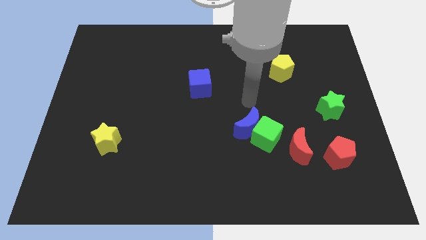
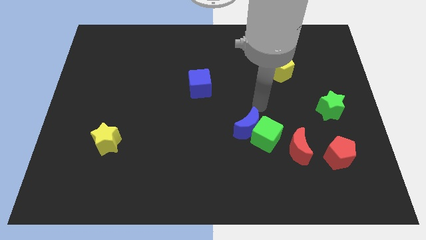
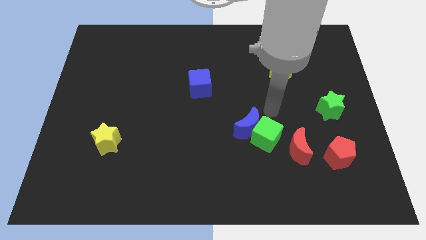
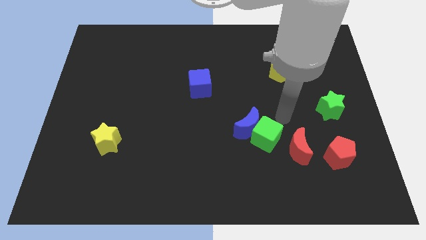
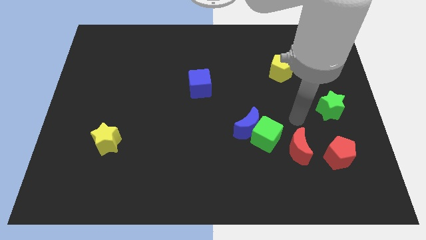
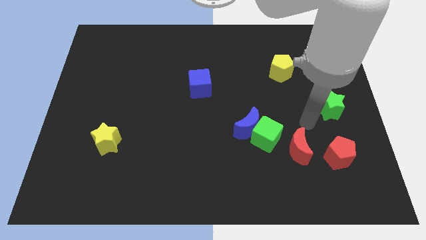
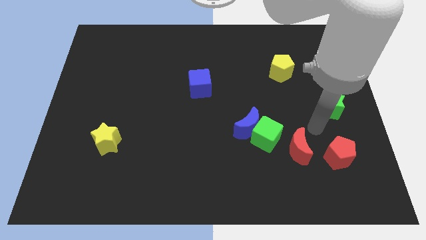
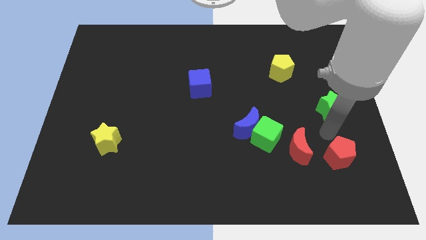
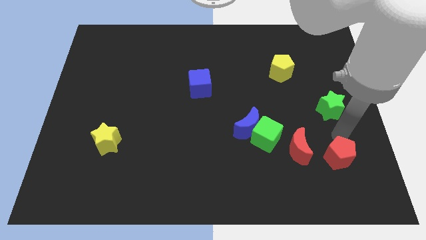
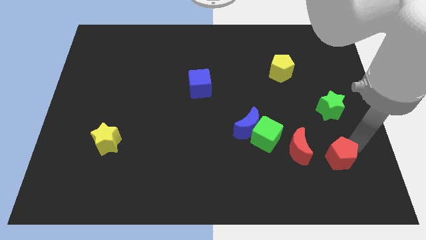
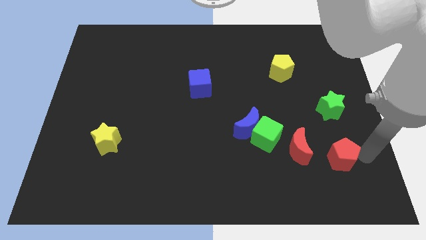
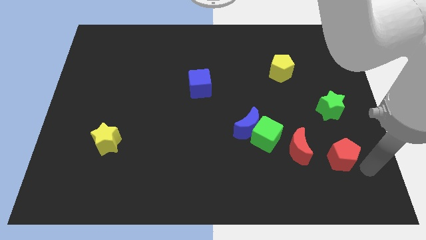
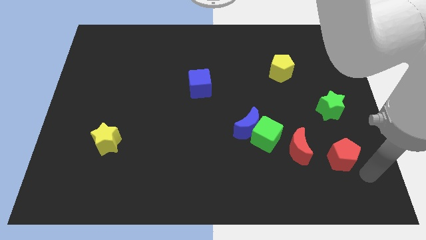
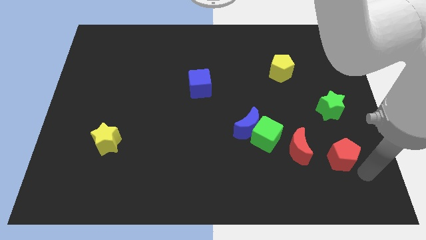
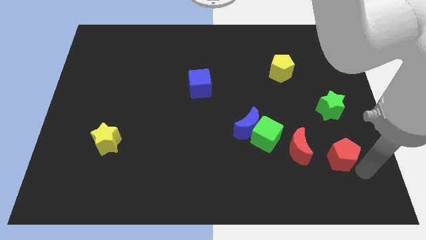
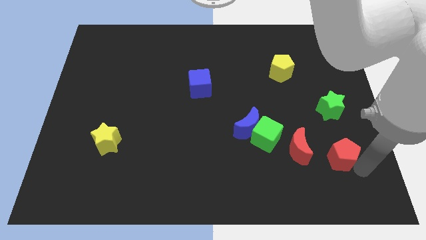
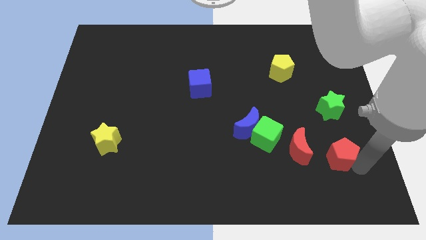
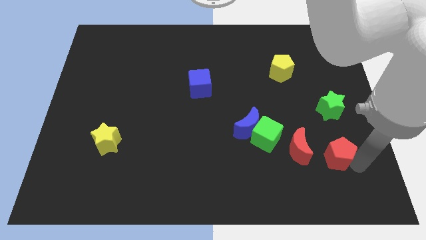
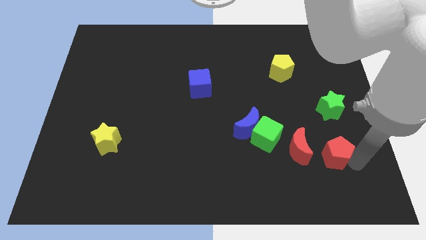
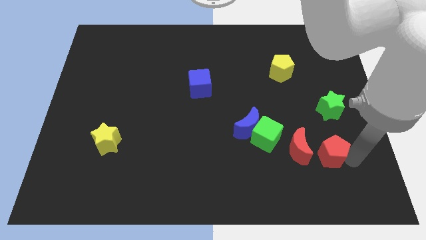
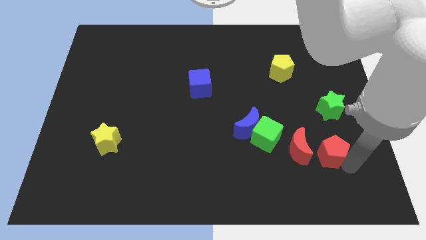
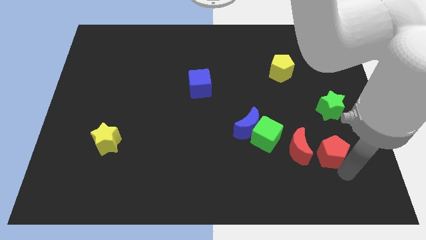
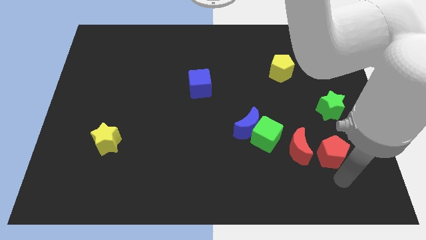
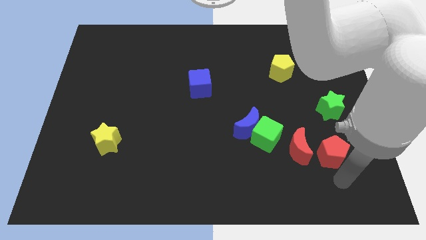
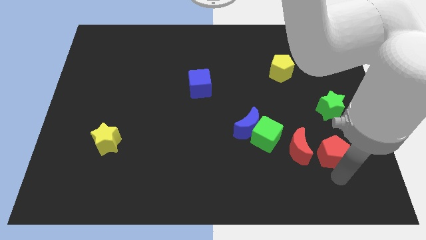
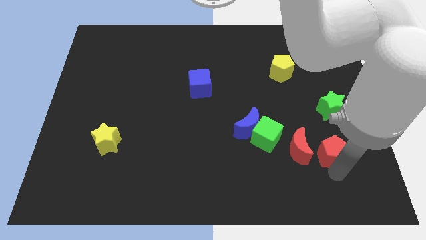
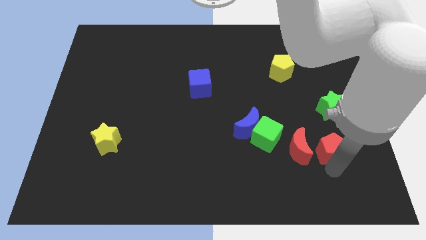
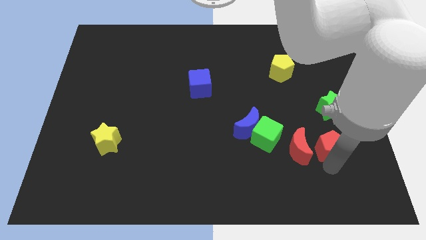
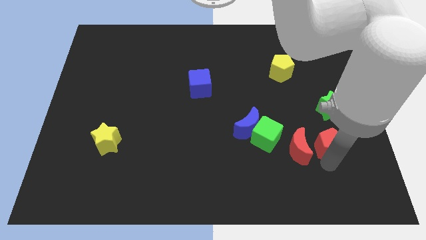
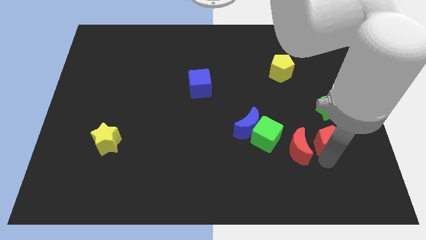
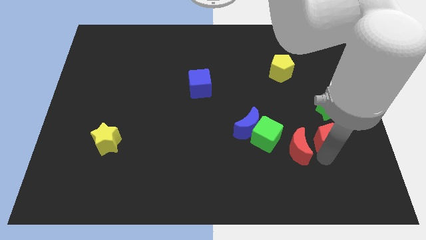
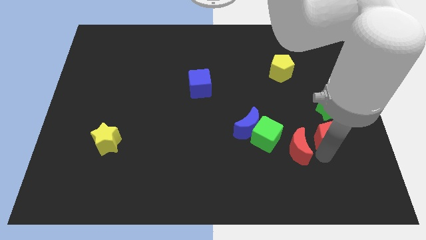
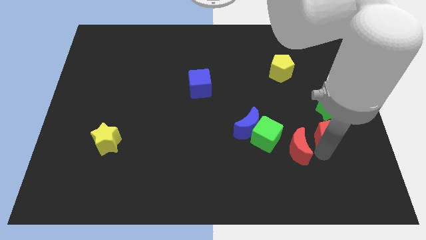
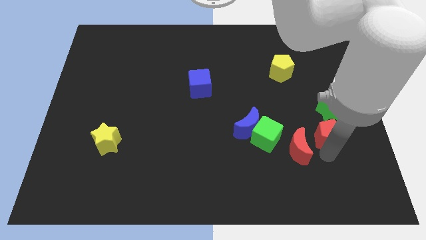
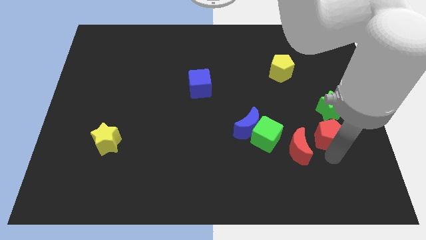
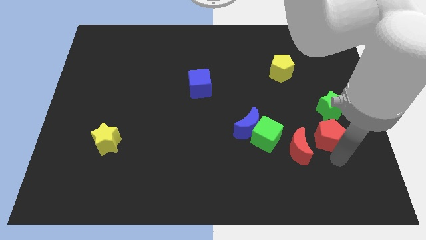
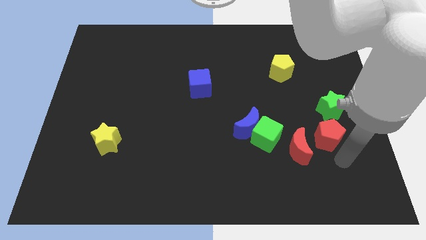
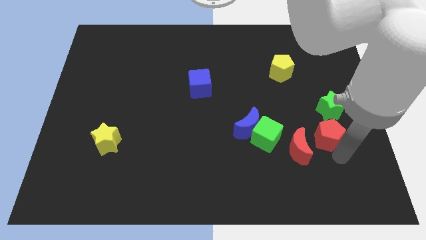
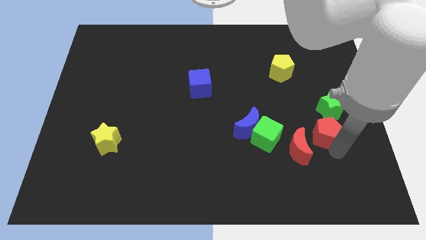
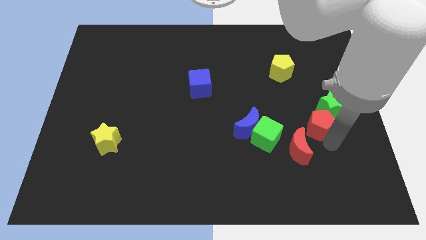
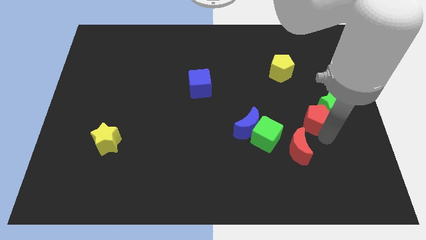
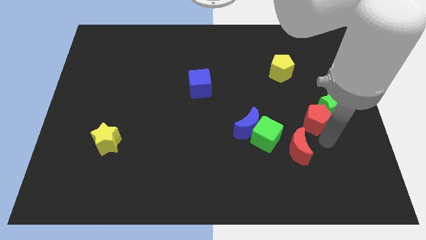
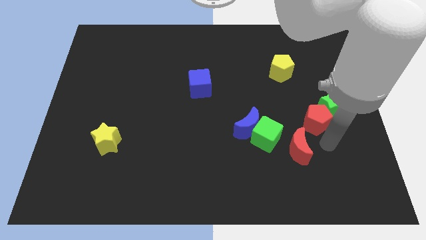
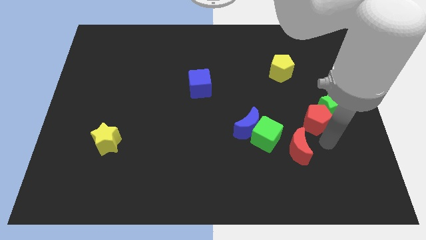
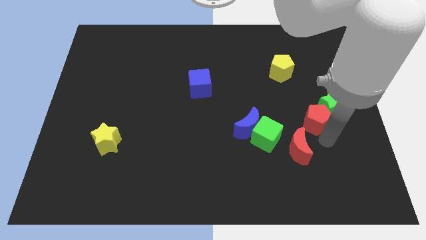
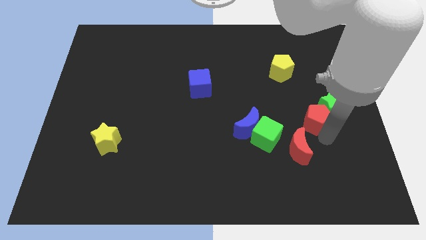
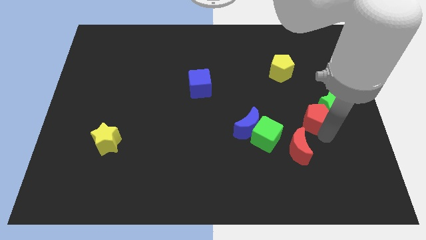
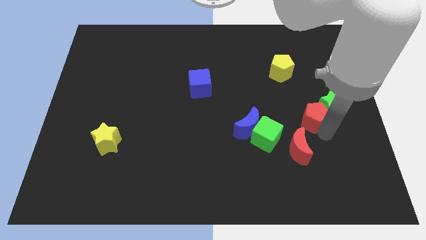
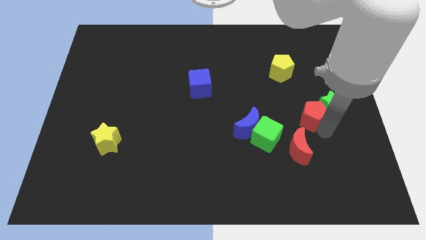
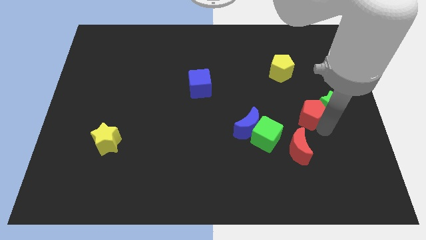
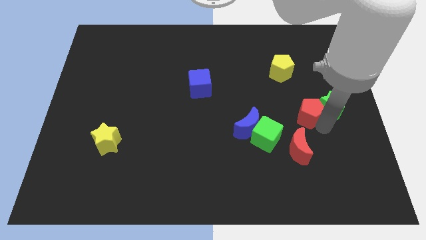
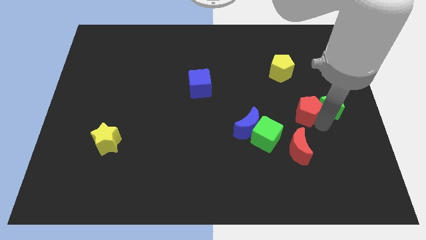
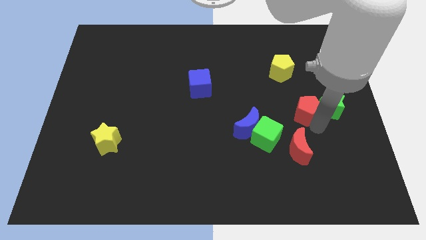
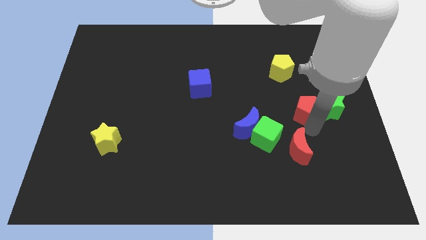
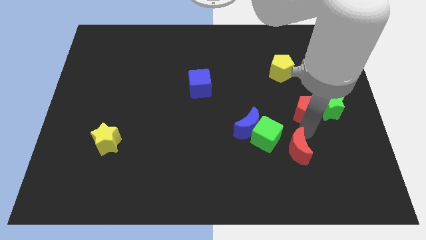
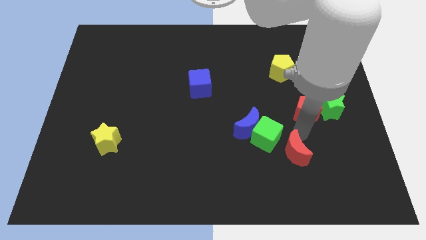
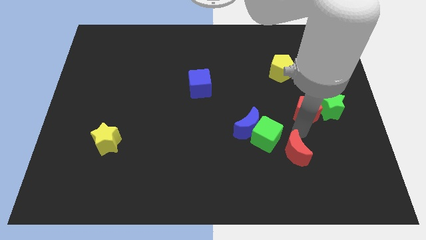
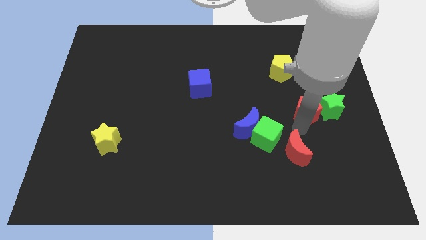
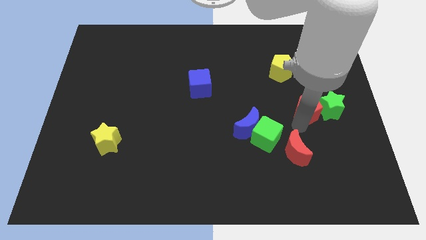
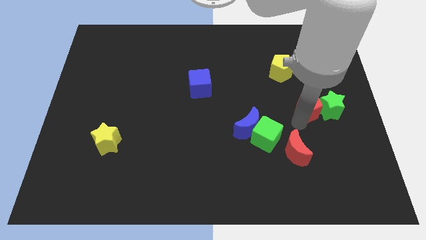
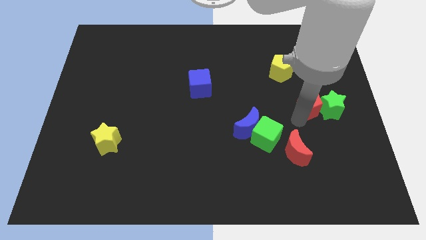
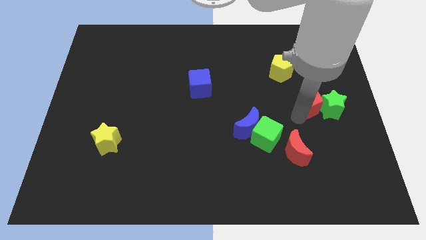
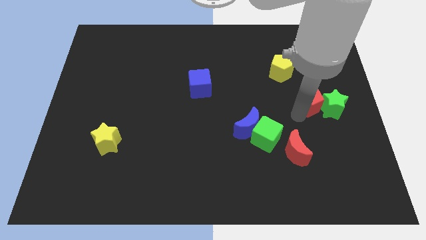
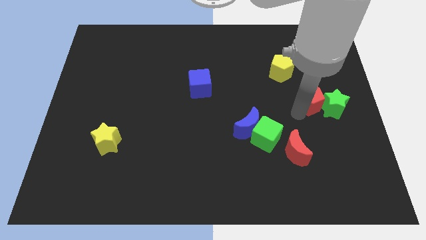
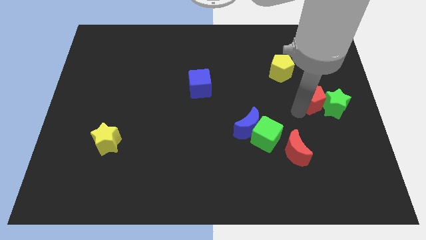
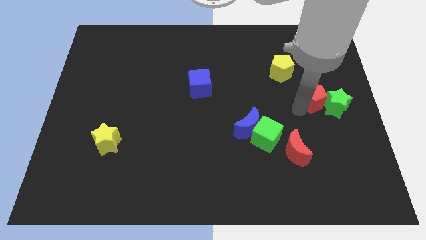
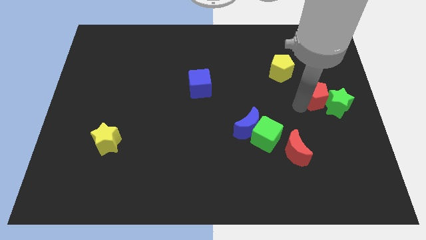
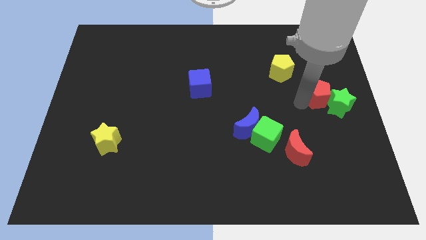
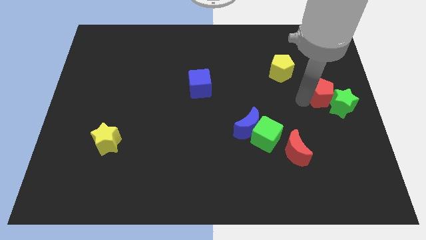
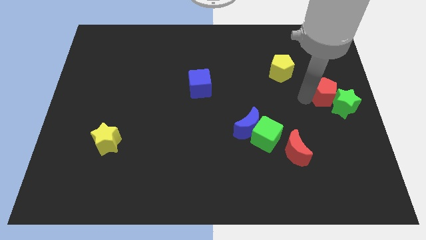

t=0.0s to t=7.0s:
slide the red pentagon to the top side of the green star
